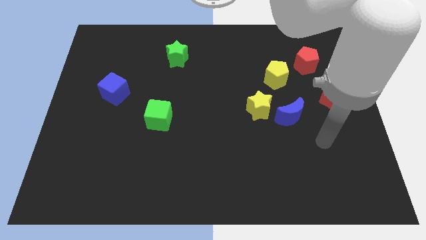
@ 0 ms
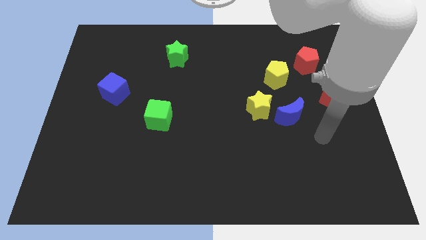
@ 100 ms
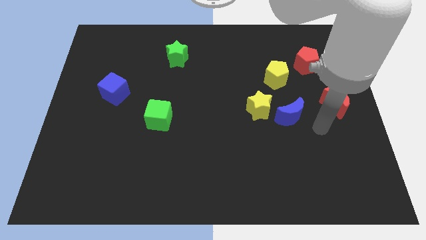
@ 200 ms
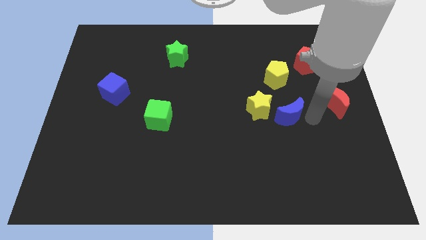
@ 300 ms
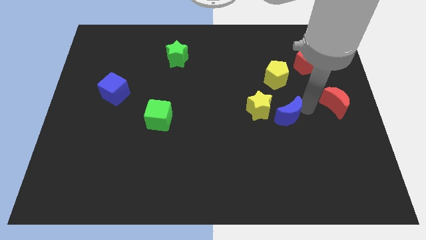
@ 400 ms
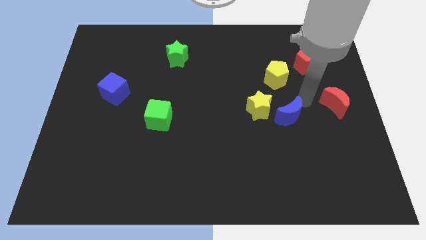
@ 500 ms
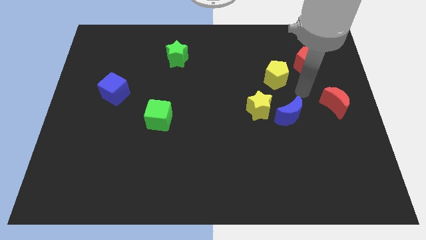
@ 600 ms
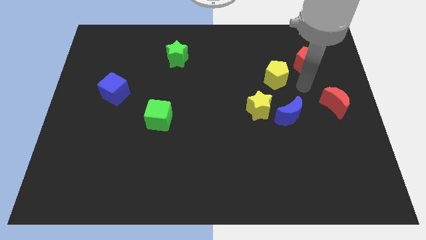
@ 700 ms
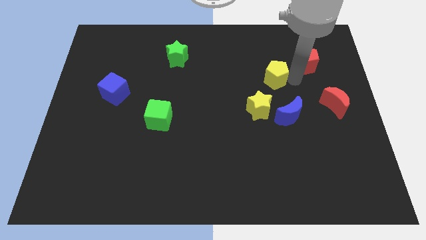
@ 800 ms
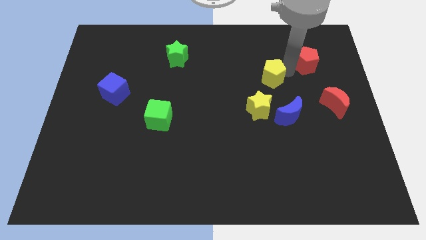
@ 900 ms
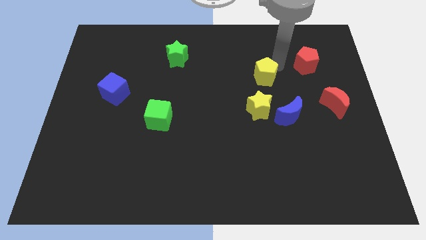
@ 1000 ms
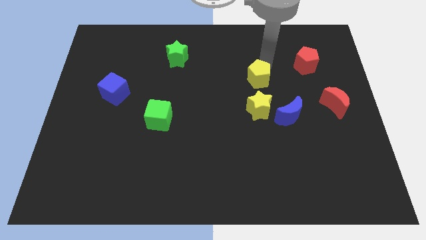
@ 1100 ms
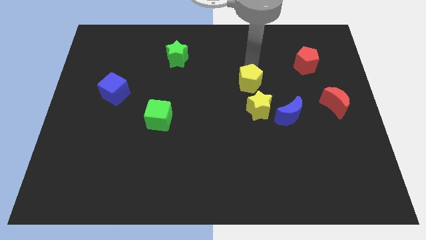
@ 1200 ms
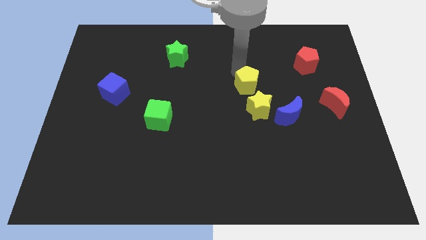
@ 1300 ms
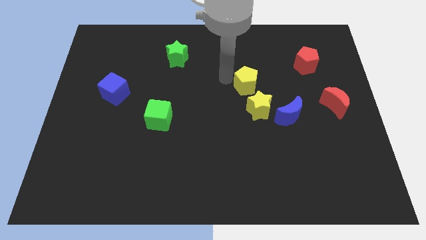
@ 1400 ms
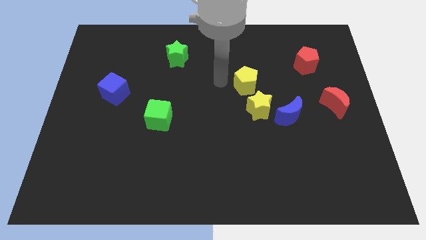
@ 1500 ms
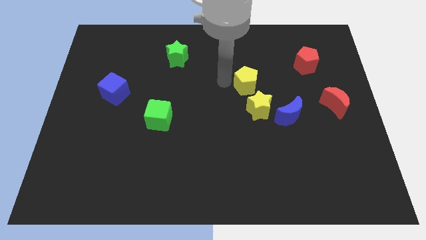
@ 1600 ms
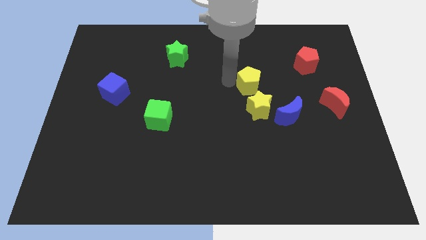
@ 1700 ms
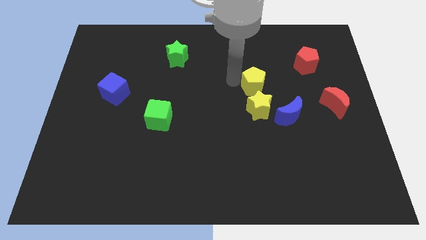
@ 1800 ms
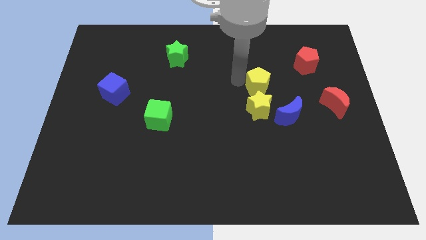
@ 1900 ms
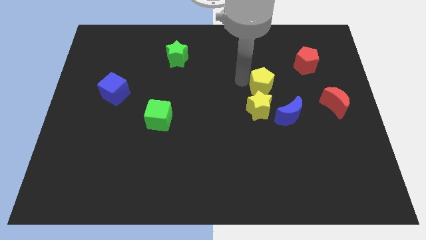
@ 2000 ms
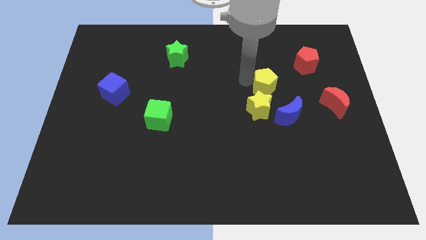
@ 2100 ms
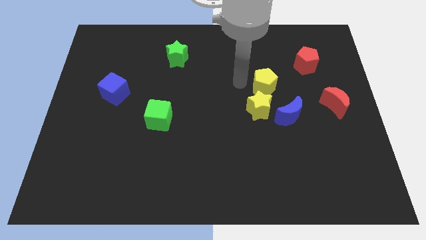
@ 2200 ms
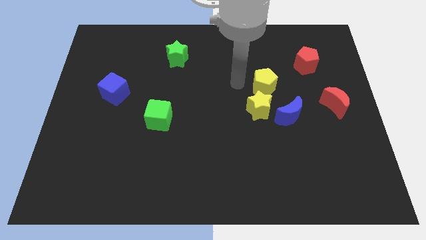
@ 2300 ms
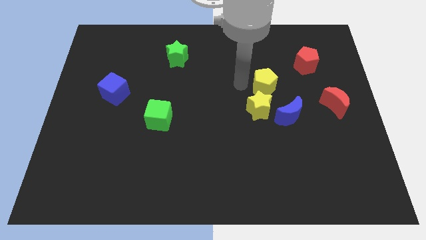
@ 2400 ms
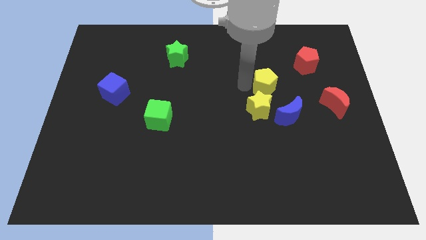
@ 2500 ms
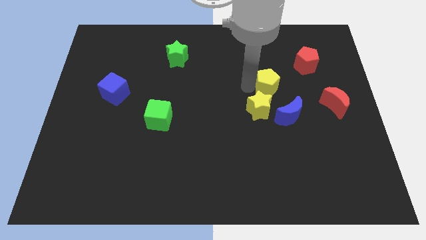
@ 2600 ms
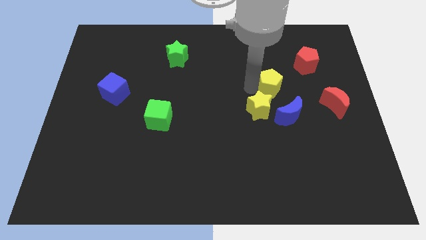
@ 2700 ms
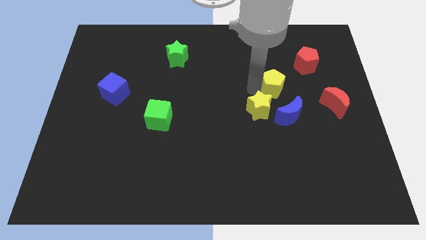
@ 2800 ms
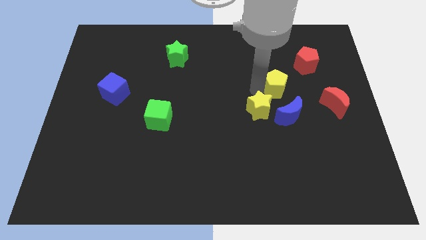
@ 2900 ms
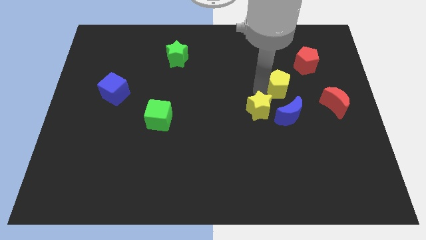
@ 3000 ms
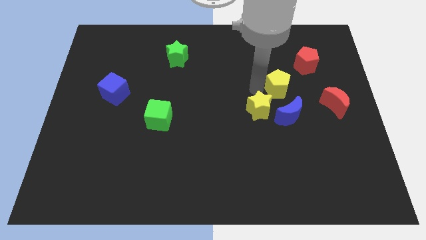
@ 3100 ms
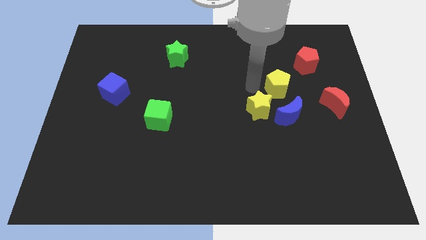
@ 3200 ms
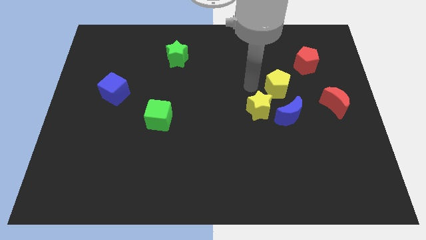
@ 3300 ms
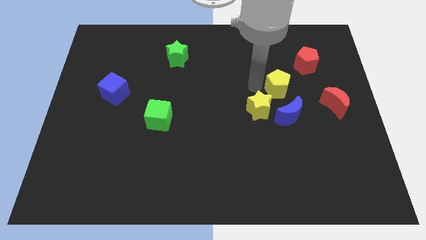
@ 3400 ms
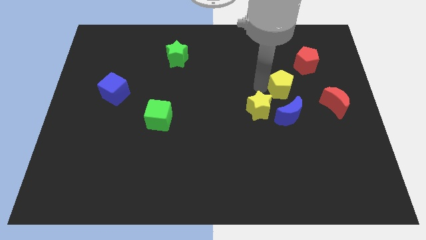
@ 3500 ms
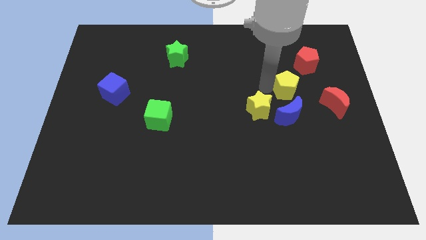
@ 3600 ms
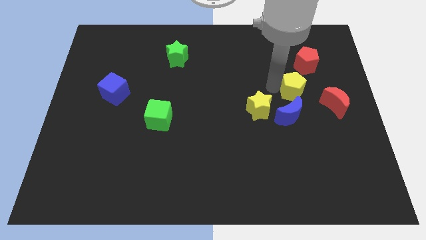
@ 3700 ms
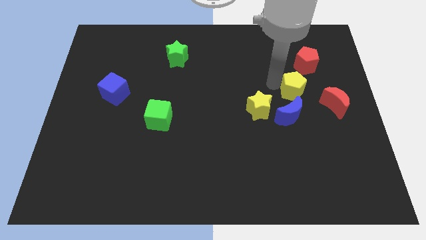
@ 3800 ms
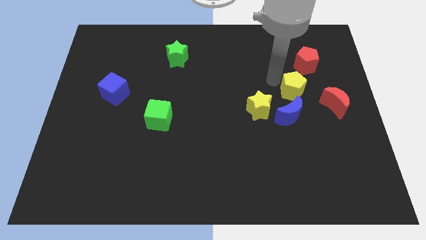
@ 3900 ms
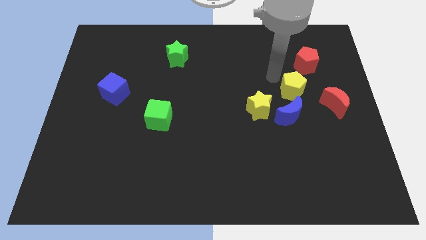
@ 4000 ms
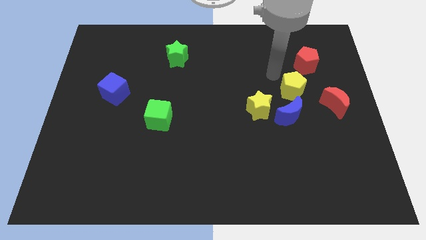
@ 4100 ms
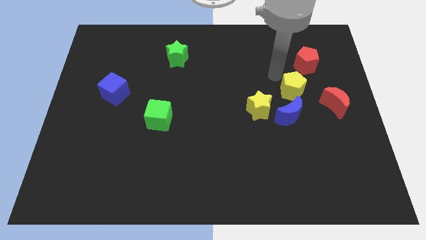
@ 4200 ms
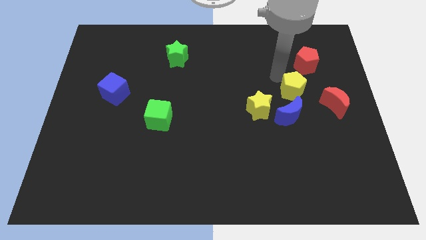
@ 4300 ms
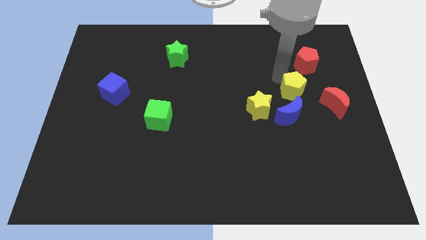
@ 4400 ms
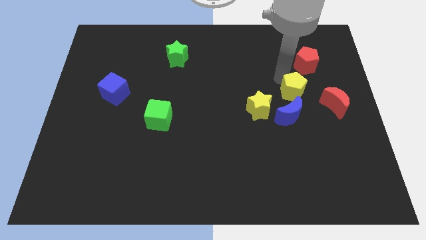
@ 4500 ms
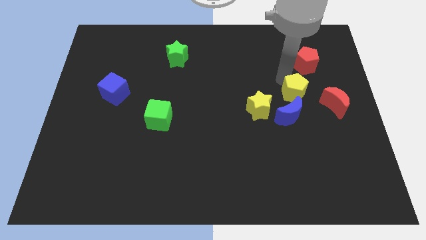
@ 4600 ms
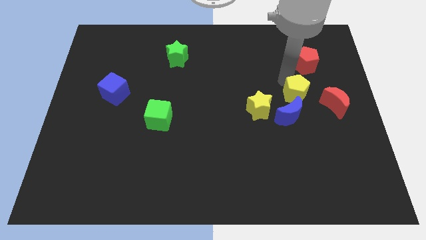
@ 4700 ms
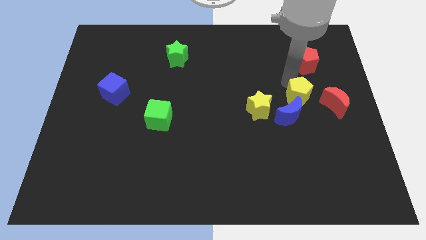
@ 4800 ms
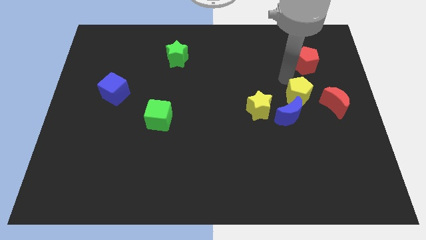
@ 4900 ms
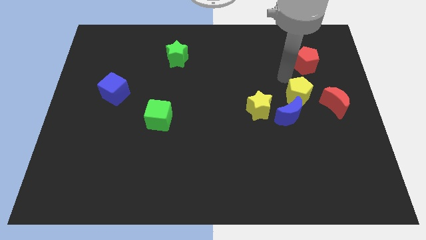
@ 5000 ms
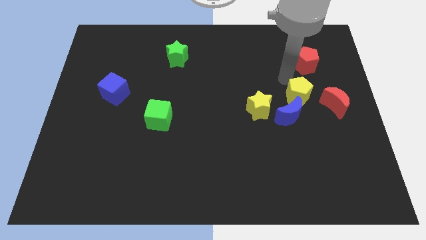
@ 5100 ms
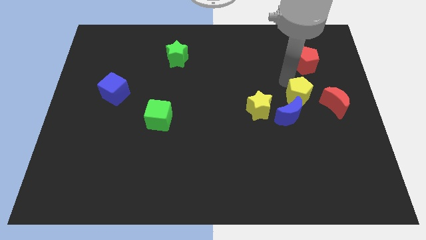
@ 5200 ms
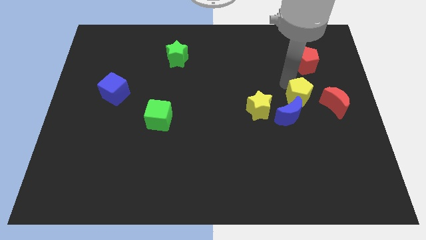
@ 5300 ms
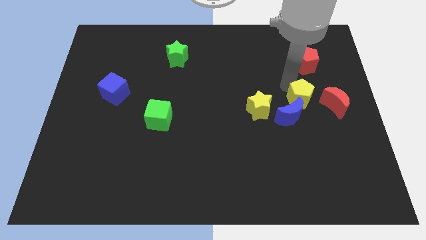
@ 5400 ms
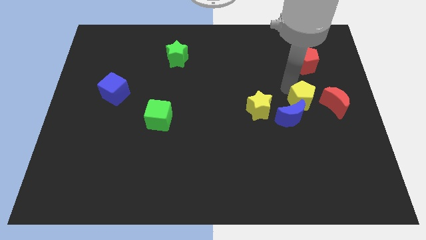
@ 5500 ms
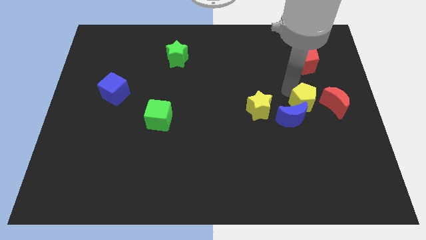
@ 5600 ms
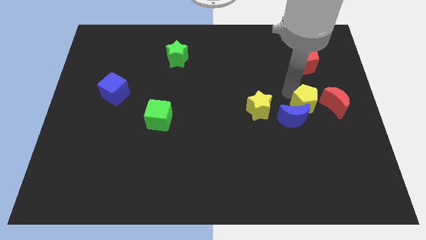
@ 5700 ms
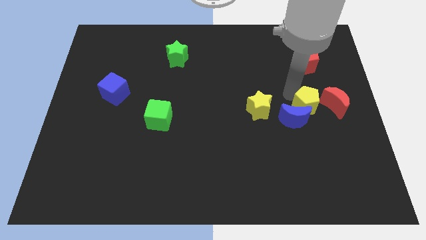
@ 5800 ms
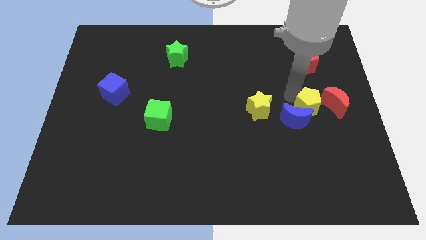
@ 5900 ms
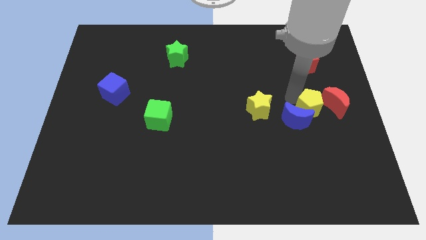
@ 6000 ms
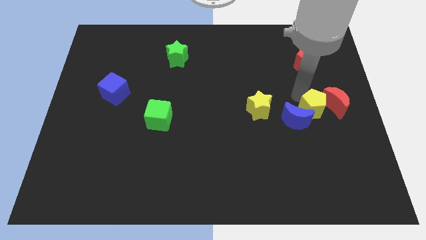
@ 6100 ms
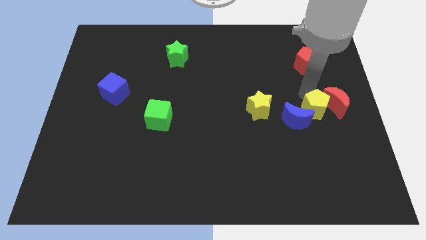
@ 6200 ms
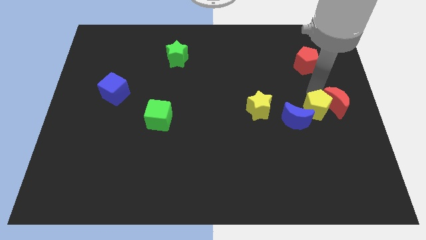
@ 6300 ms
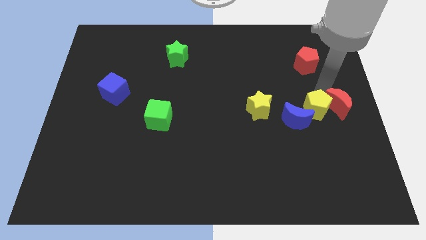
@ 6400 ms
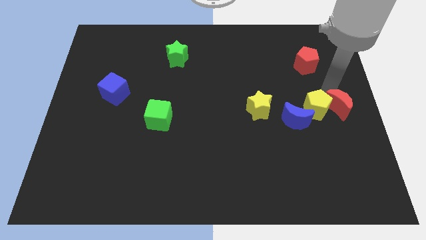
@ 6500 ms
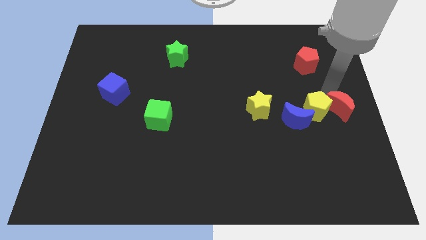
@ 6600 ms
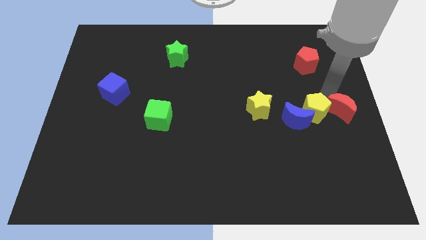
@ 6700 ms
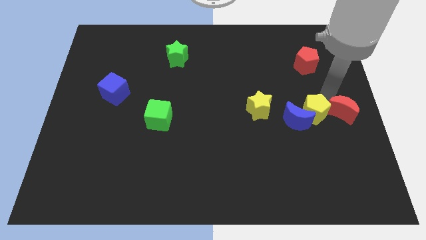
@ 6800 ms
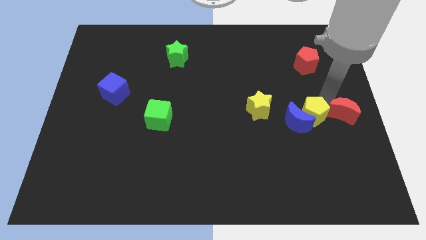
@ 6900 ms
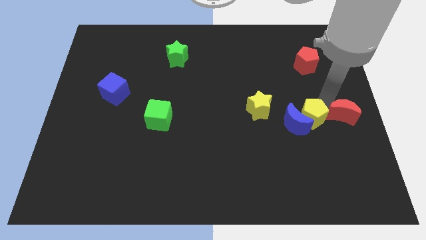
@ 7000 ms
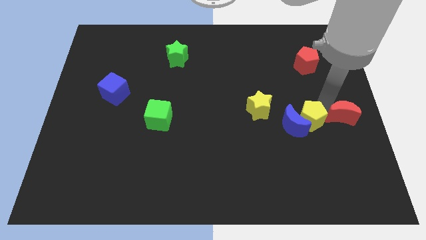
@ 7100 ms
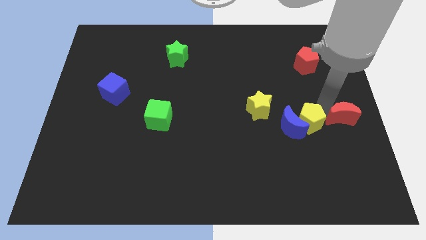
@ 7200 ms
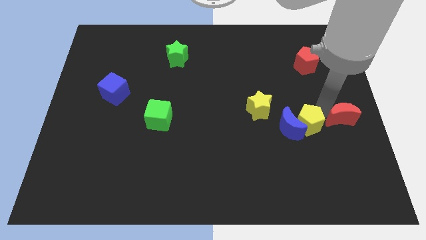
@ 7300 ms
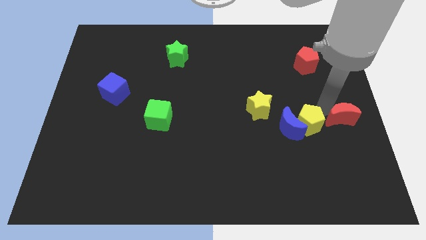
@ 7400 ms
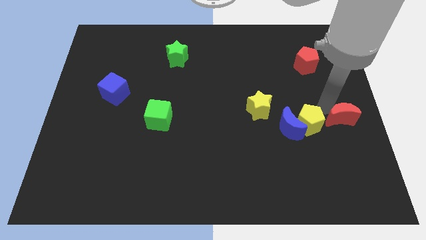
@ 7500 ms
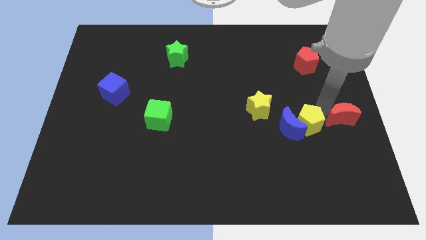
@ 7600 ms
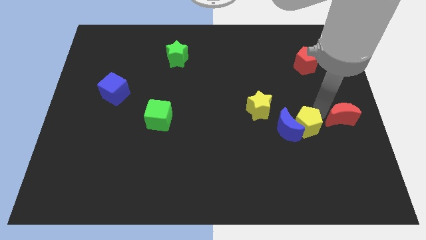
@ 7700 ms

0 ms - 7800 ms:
move the yellow pentagon to the bottom right side of the yellow star
